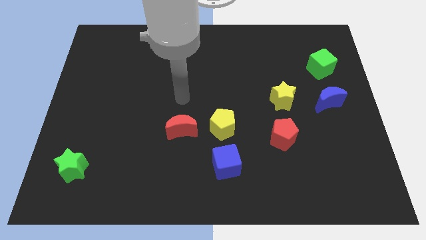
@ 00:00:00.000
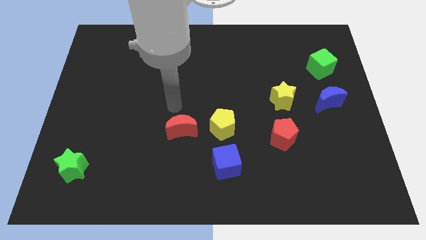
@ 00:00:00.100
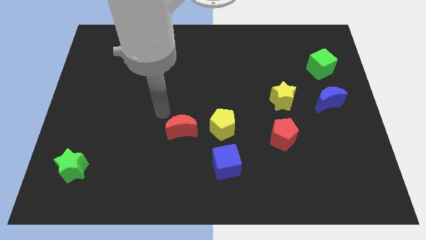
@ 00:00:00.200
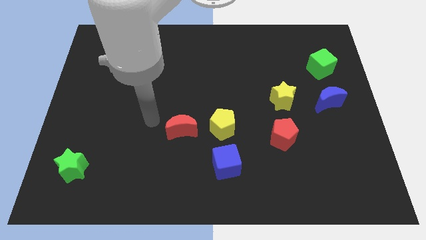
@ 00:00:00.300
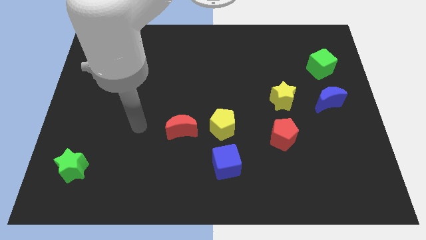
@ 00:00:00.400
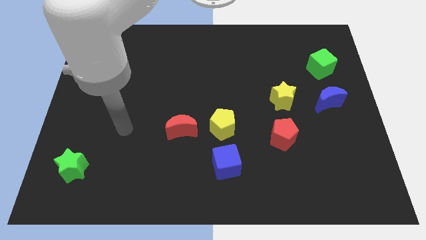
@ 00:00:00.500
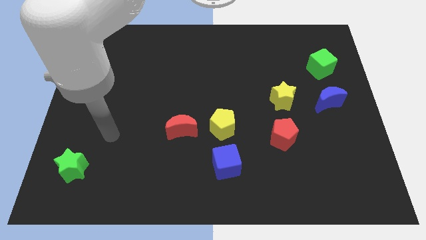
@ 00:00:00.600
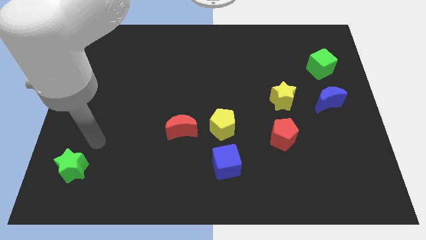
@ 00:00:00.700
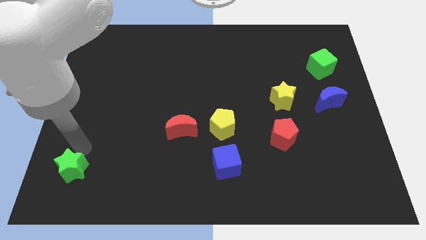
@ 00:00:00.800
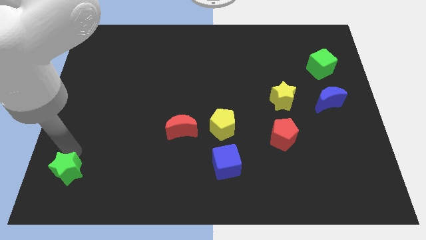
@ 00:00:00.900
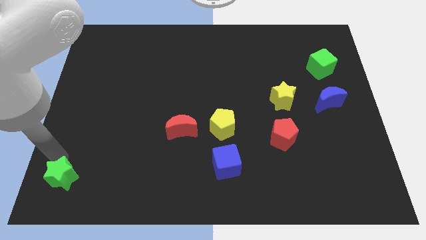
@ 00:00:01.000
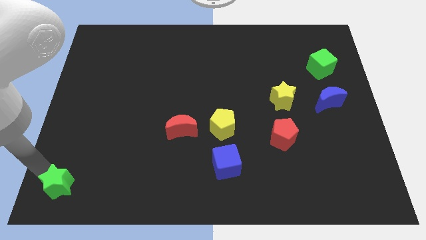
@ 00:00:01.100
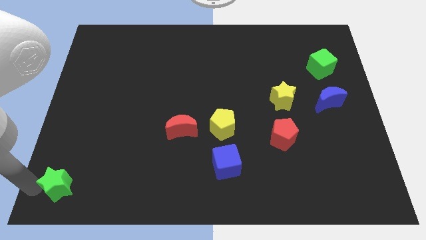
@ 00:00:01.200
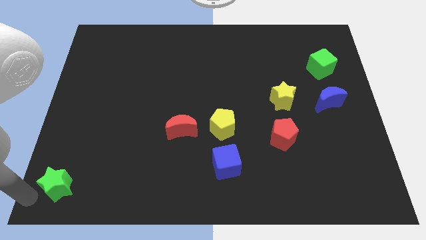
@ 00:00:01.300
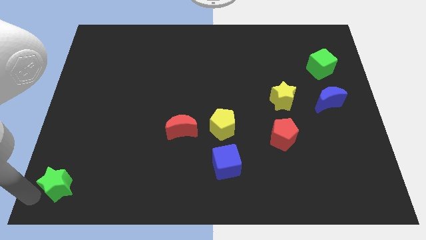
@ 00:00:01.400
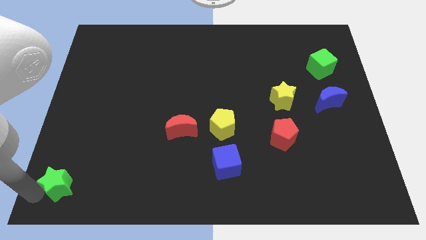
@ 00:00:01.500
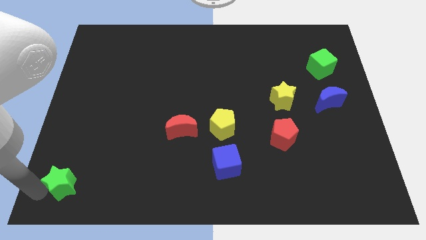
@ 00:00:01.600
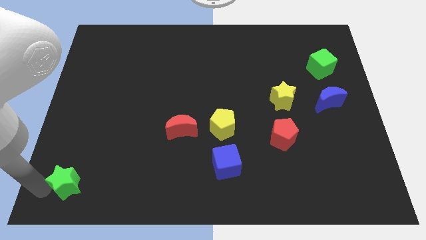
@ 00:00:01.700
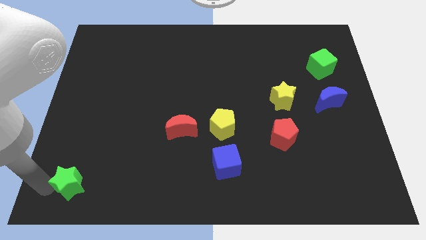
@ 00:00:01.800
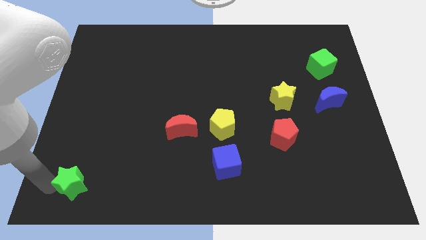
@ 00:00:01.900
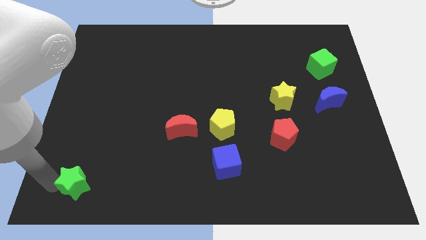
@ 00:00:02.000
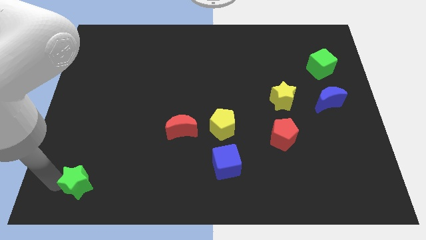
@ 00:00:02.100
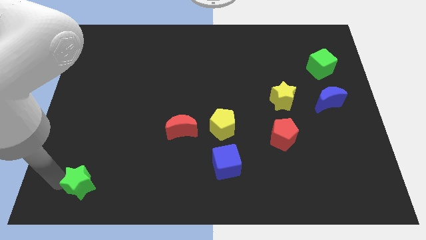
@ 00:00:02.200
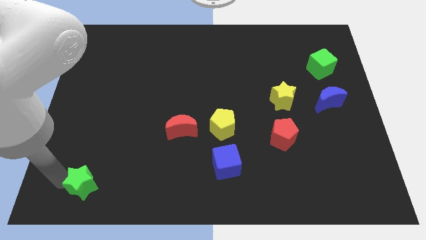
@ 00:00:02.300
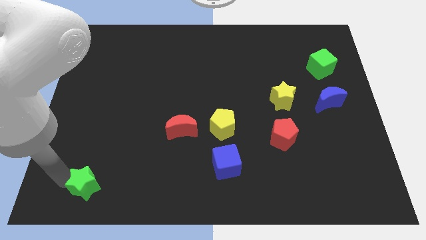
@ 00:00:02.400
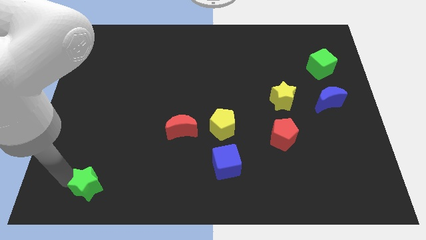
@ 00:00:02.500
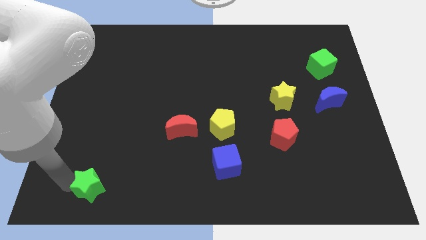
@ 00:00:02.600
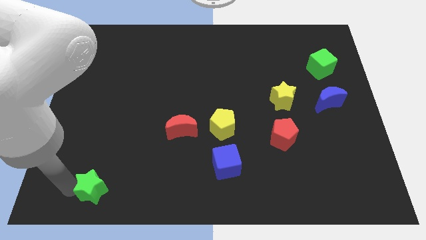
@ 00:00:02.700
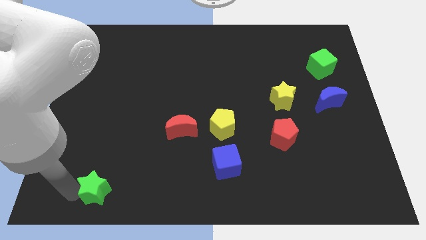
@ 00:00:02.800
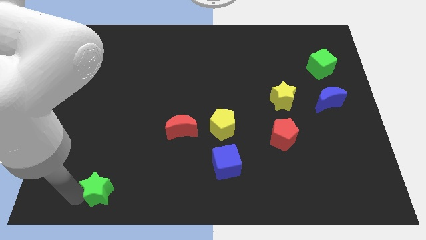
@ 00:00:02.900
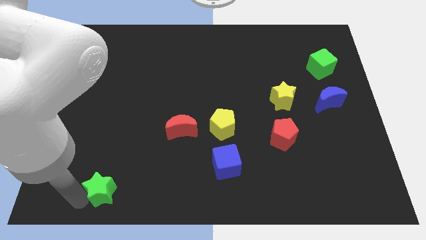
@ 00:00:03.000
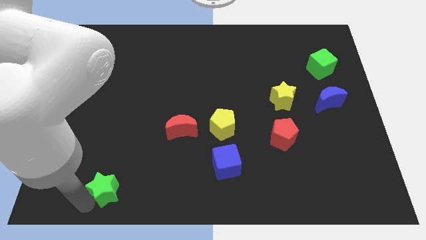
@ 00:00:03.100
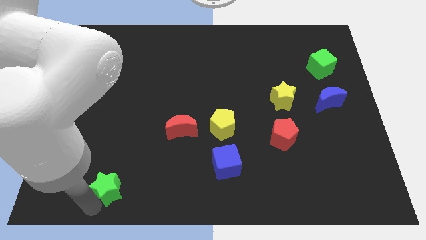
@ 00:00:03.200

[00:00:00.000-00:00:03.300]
slide the green star to the right somewhat

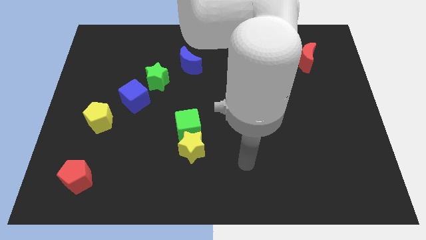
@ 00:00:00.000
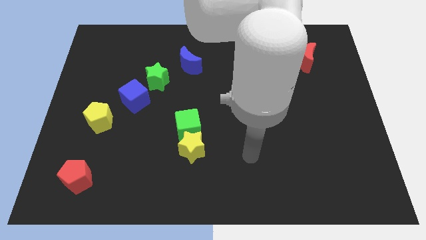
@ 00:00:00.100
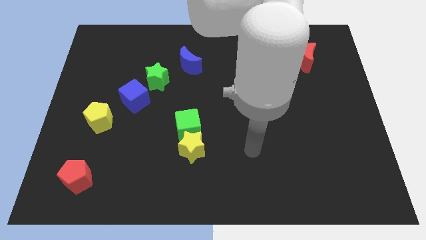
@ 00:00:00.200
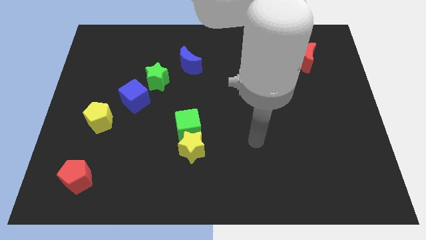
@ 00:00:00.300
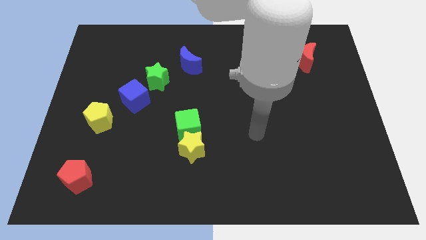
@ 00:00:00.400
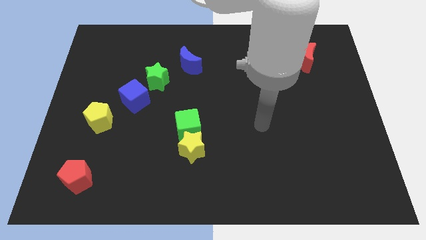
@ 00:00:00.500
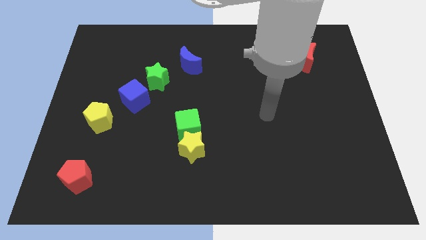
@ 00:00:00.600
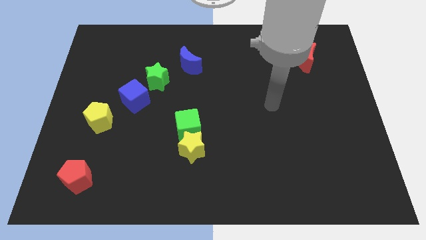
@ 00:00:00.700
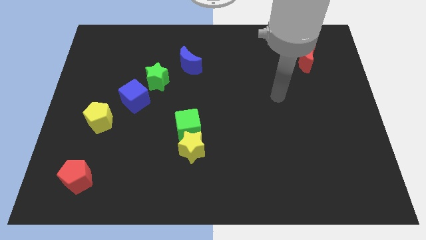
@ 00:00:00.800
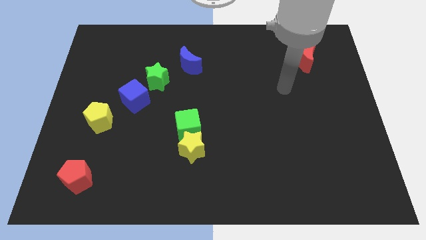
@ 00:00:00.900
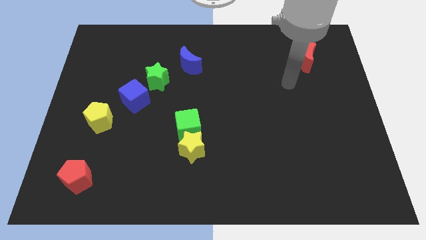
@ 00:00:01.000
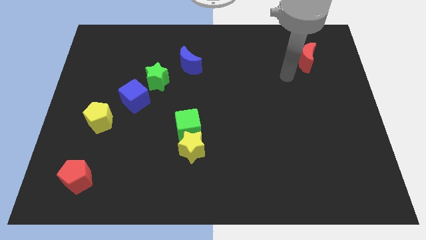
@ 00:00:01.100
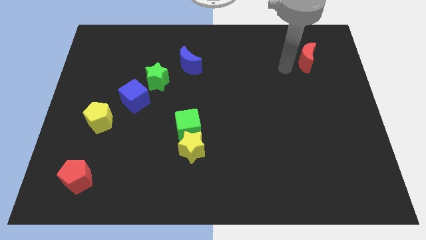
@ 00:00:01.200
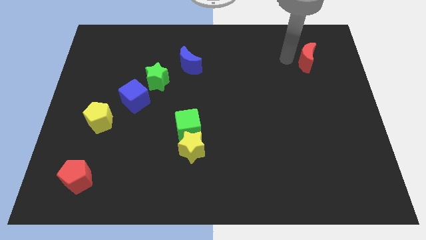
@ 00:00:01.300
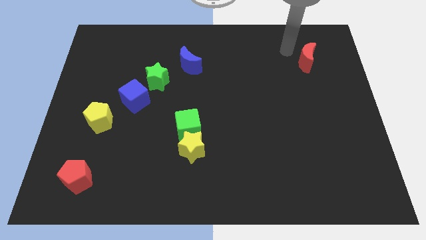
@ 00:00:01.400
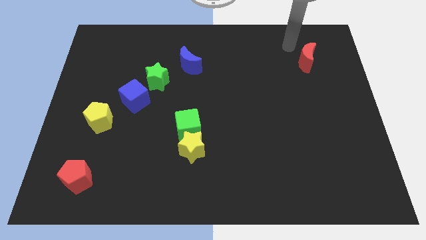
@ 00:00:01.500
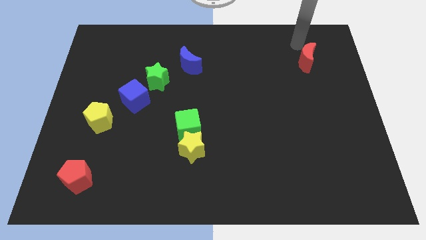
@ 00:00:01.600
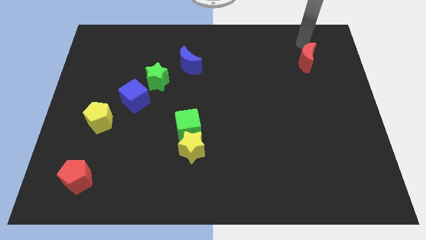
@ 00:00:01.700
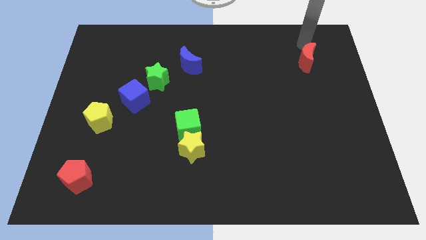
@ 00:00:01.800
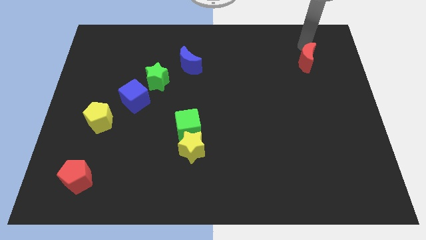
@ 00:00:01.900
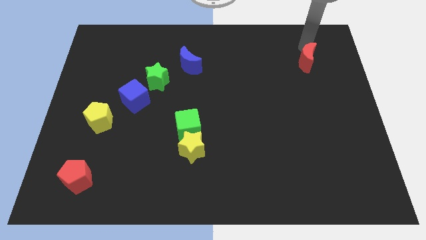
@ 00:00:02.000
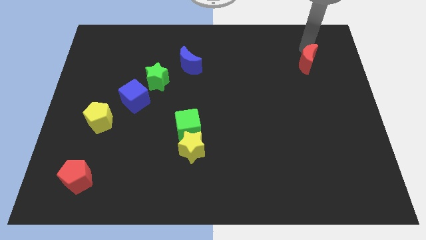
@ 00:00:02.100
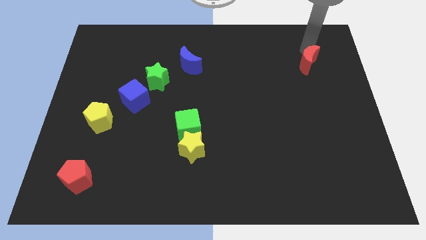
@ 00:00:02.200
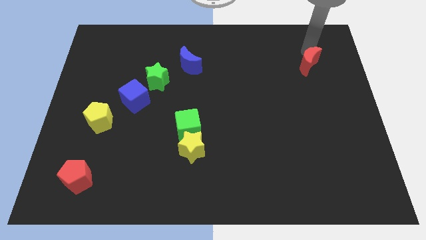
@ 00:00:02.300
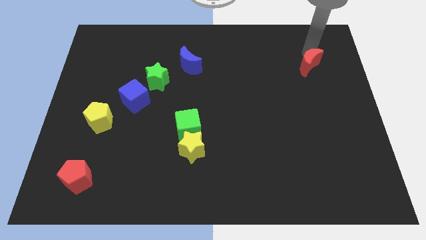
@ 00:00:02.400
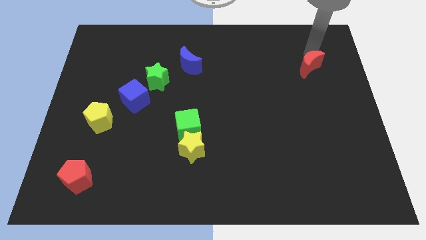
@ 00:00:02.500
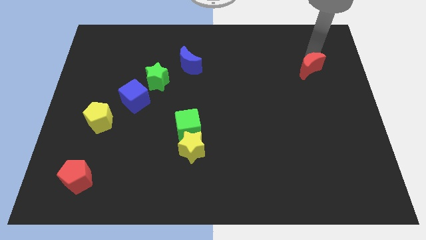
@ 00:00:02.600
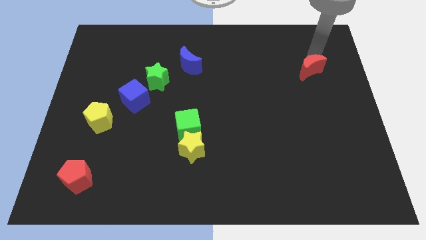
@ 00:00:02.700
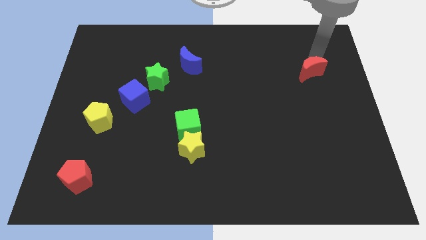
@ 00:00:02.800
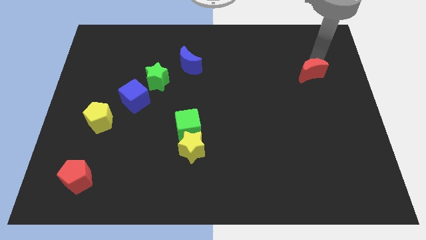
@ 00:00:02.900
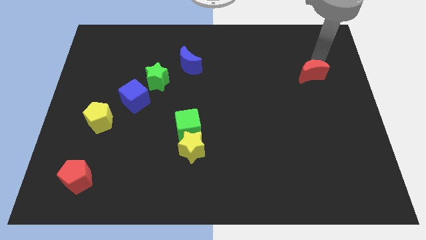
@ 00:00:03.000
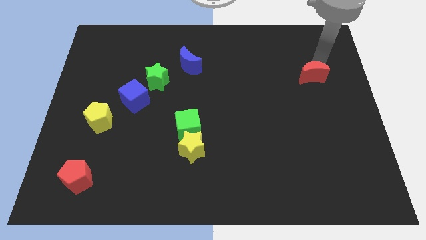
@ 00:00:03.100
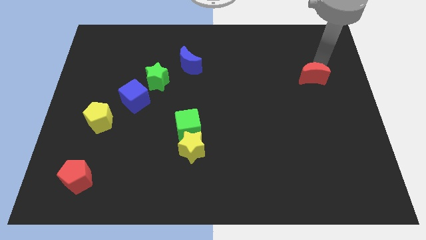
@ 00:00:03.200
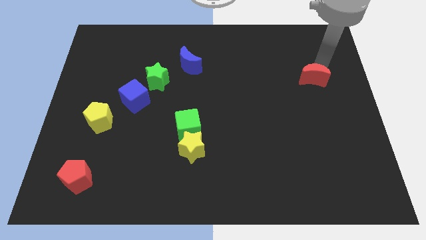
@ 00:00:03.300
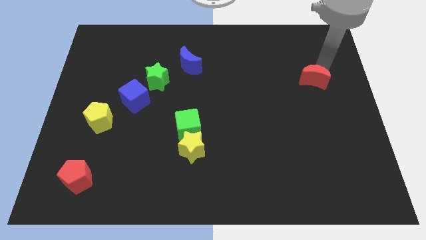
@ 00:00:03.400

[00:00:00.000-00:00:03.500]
move the red moon down slightly

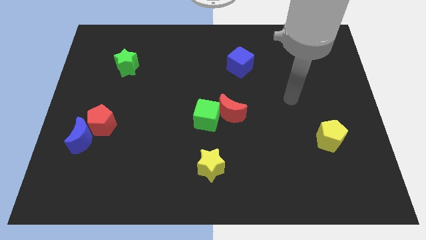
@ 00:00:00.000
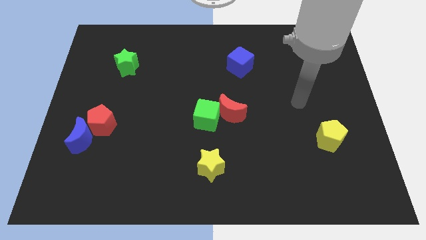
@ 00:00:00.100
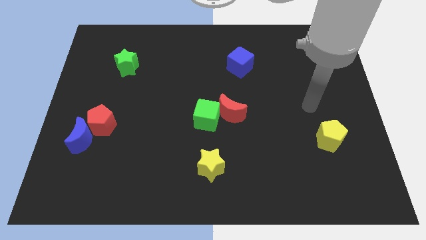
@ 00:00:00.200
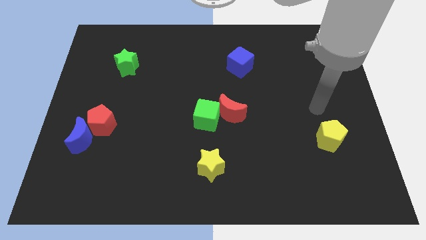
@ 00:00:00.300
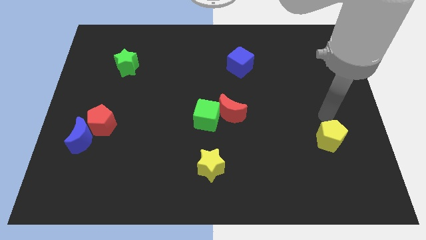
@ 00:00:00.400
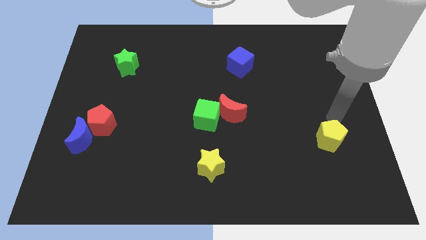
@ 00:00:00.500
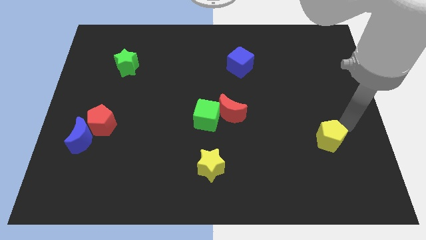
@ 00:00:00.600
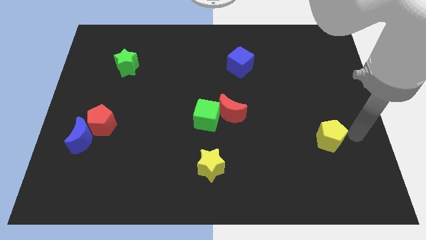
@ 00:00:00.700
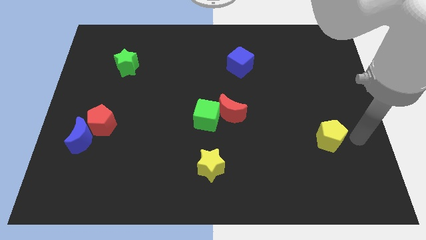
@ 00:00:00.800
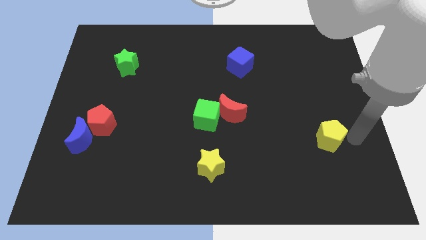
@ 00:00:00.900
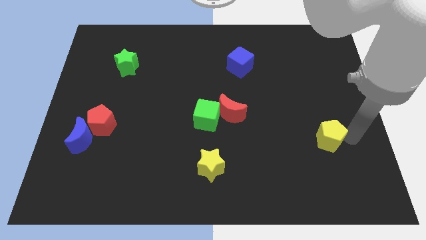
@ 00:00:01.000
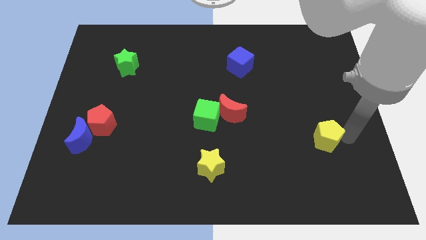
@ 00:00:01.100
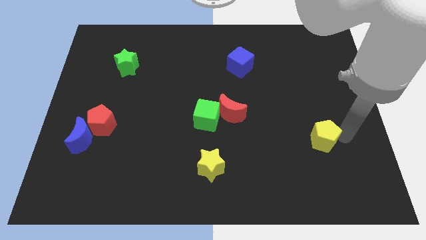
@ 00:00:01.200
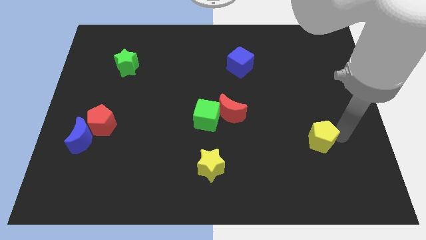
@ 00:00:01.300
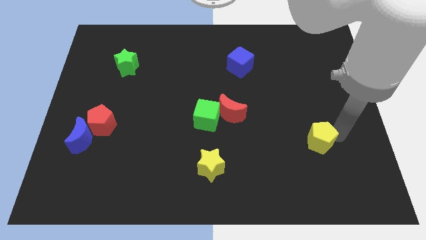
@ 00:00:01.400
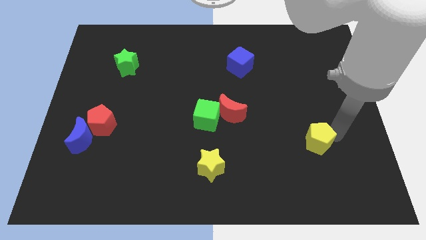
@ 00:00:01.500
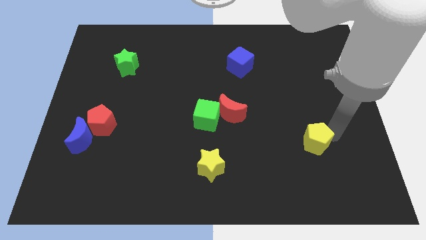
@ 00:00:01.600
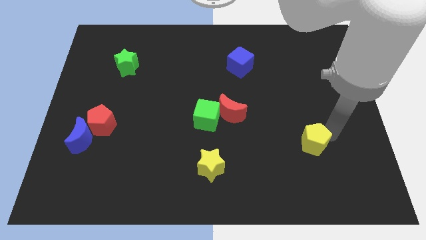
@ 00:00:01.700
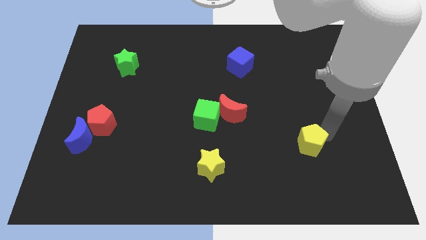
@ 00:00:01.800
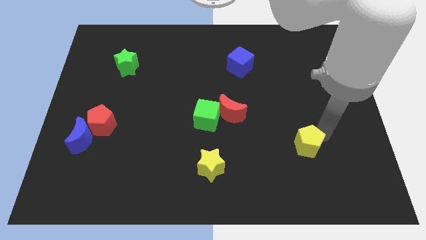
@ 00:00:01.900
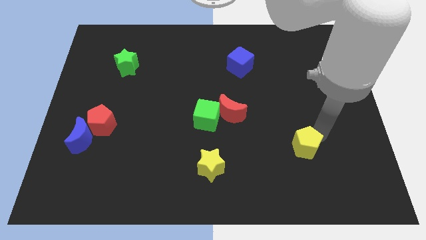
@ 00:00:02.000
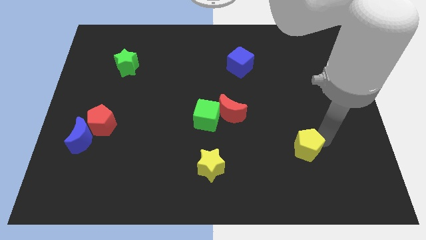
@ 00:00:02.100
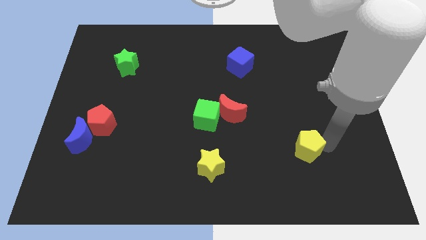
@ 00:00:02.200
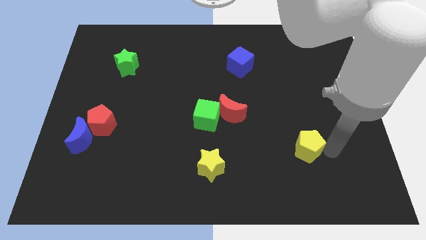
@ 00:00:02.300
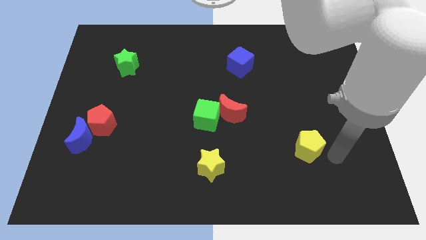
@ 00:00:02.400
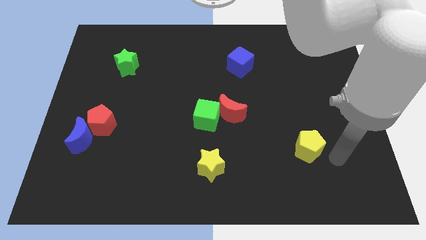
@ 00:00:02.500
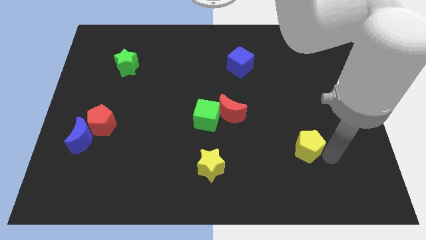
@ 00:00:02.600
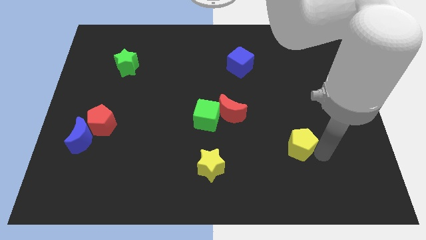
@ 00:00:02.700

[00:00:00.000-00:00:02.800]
move the yellow pentagon a little bit to the left
